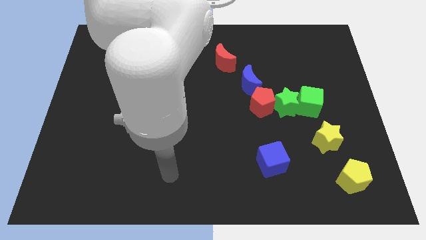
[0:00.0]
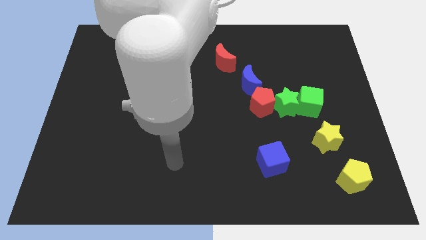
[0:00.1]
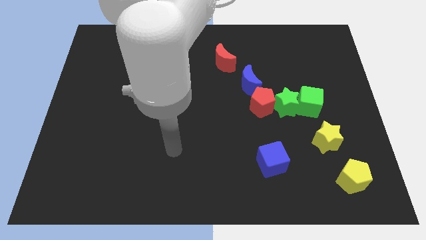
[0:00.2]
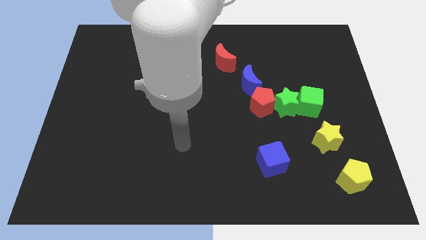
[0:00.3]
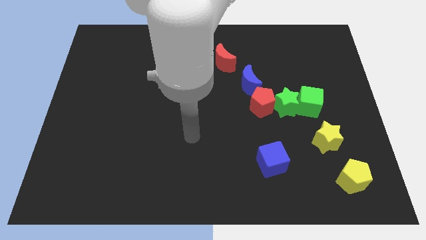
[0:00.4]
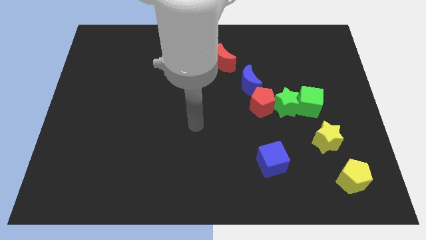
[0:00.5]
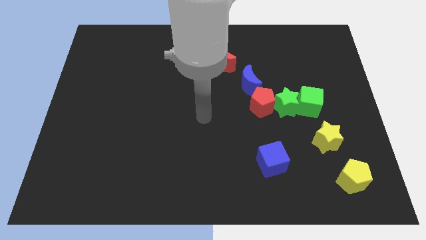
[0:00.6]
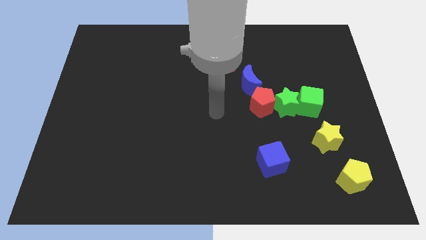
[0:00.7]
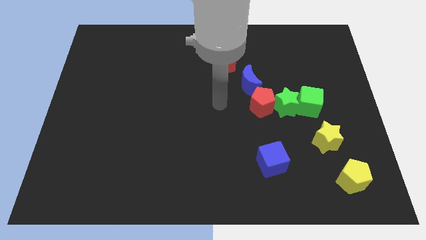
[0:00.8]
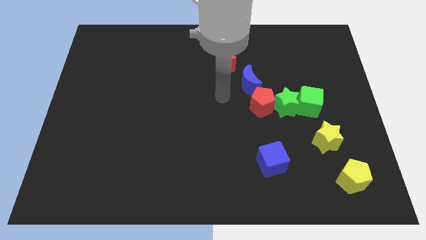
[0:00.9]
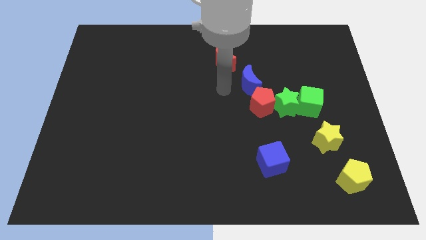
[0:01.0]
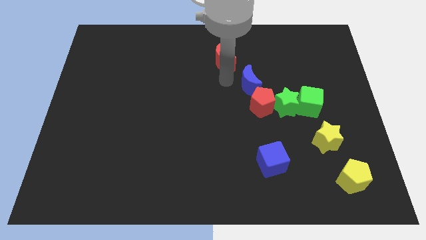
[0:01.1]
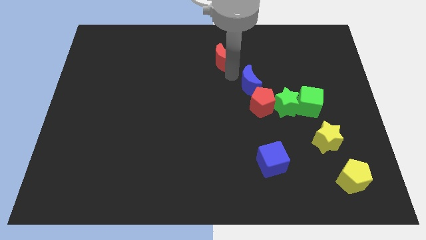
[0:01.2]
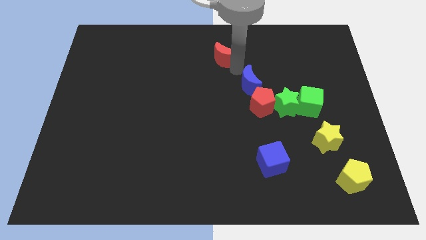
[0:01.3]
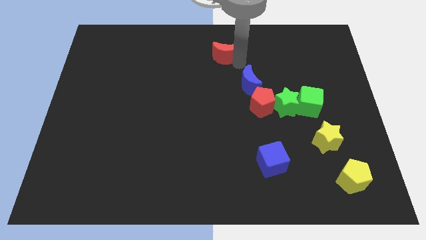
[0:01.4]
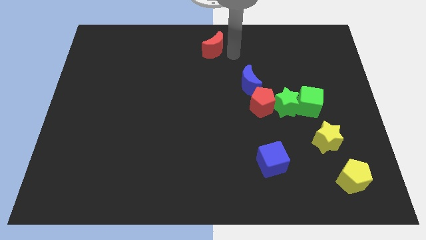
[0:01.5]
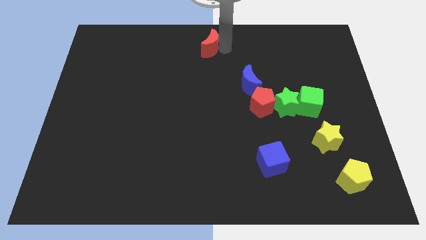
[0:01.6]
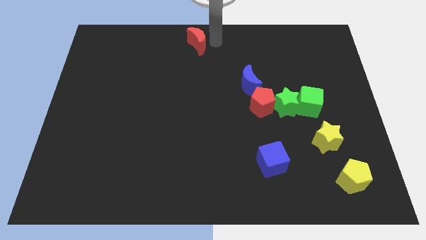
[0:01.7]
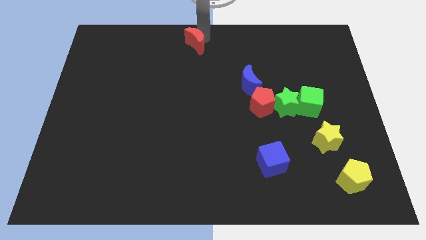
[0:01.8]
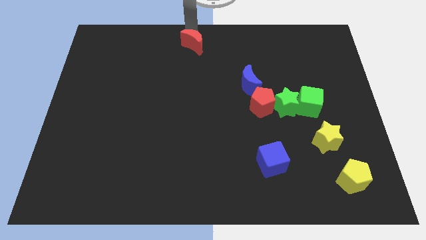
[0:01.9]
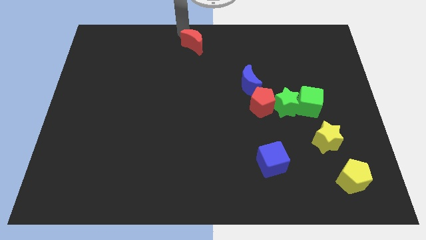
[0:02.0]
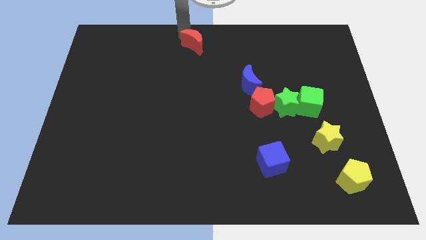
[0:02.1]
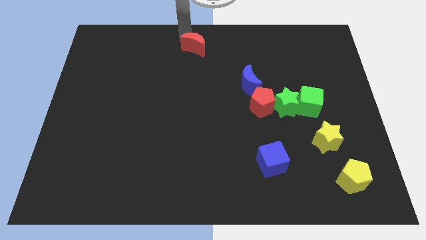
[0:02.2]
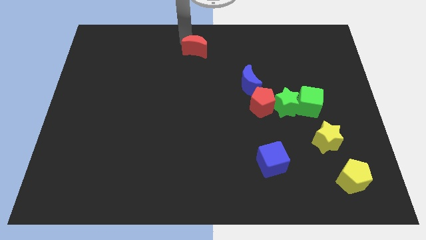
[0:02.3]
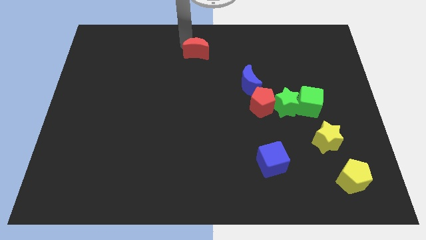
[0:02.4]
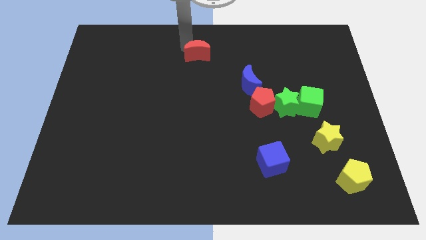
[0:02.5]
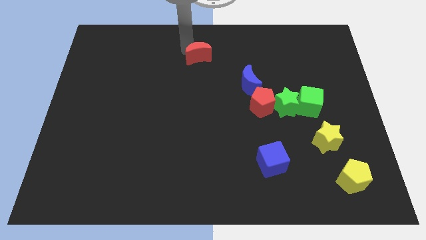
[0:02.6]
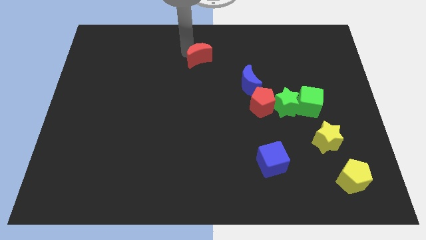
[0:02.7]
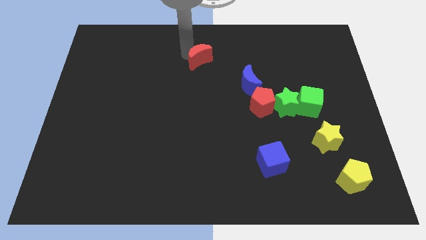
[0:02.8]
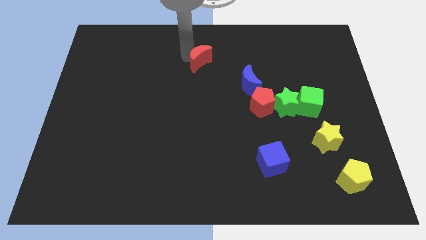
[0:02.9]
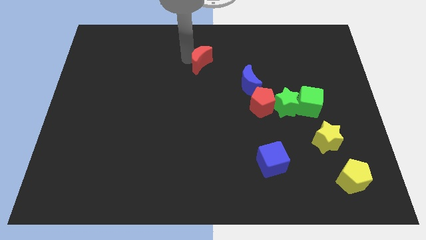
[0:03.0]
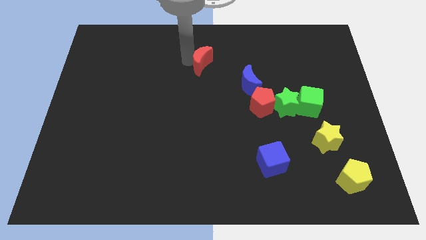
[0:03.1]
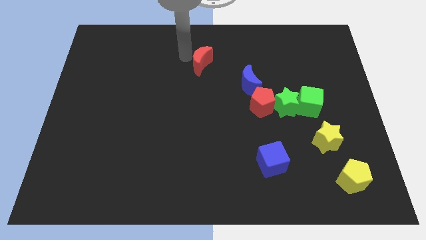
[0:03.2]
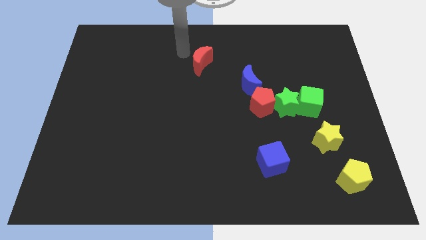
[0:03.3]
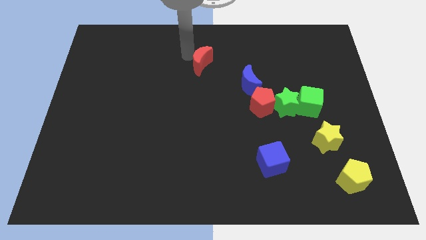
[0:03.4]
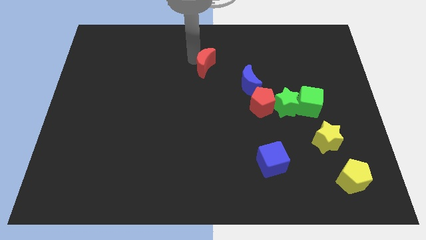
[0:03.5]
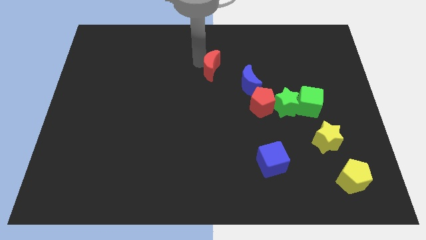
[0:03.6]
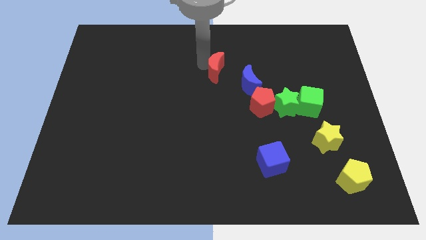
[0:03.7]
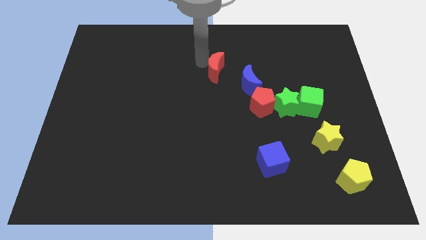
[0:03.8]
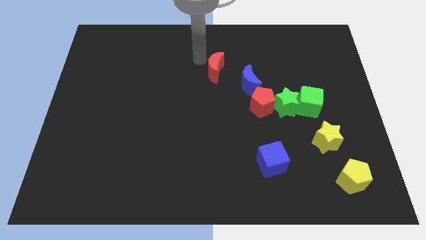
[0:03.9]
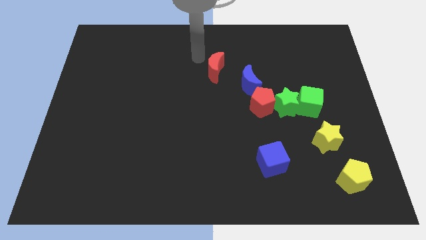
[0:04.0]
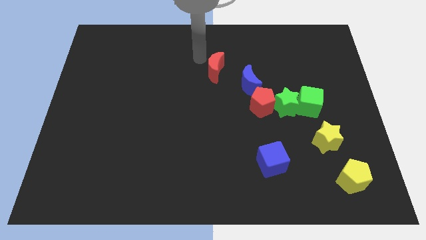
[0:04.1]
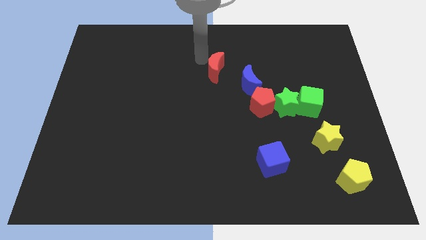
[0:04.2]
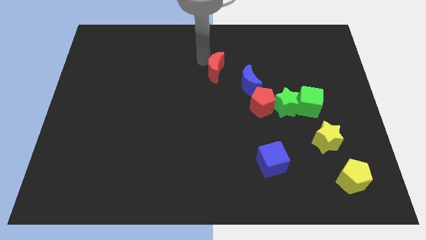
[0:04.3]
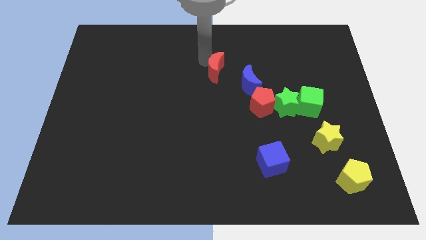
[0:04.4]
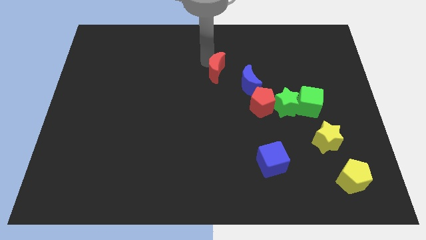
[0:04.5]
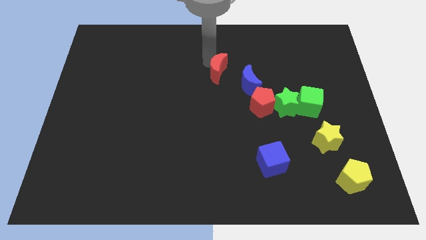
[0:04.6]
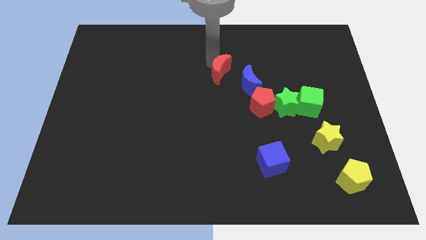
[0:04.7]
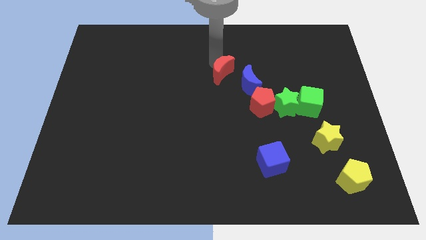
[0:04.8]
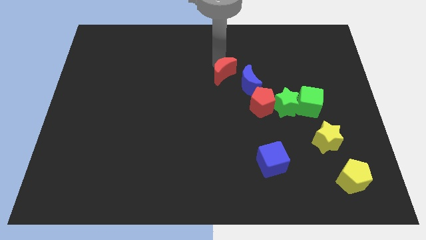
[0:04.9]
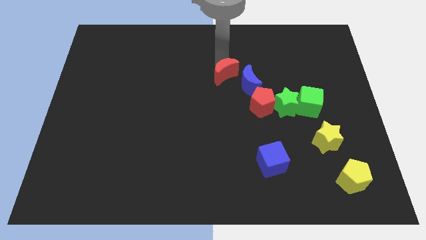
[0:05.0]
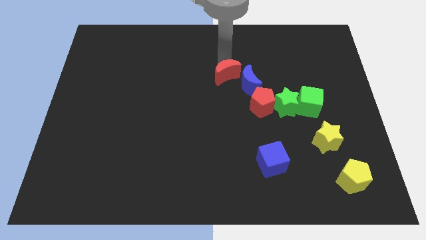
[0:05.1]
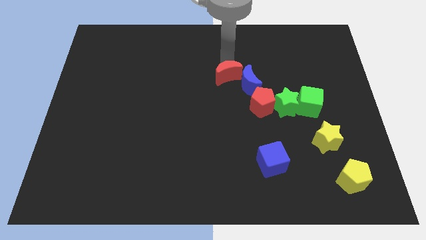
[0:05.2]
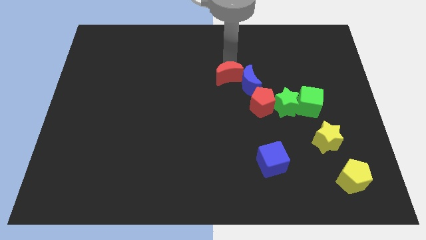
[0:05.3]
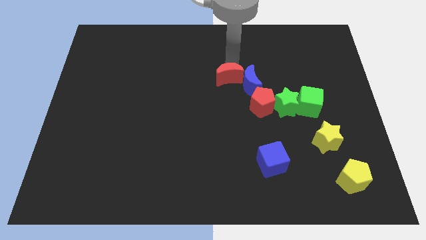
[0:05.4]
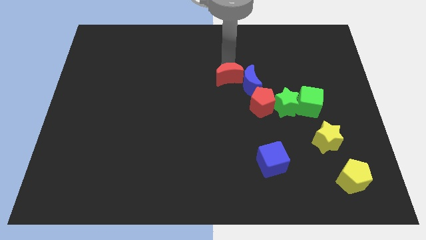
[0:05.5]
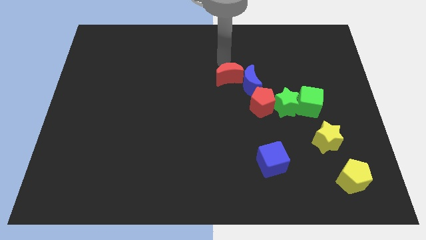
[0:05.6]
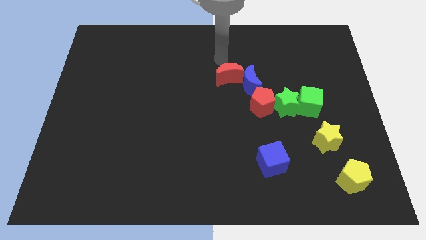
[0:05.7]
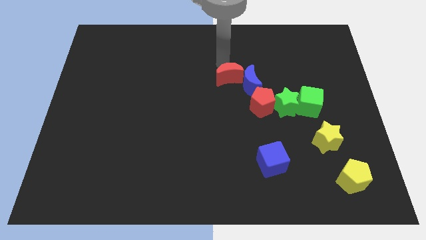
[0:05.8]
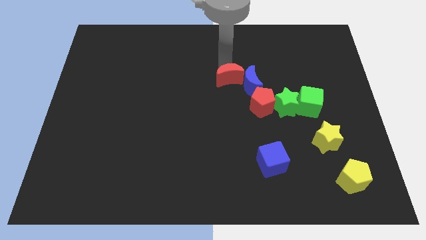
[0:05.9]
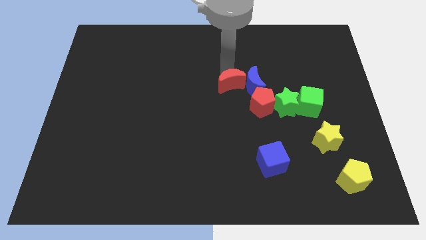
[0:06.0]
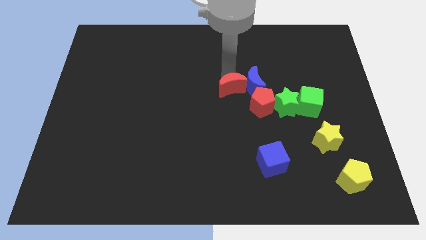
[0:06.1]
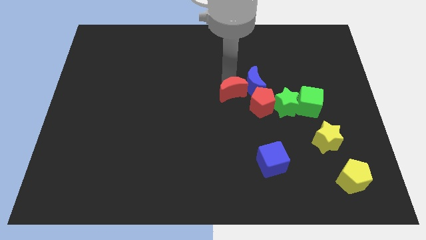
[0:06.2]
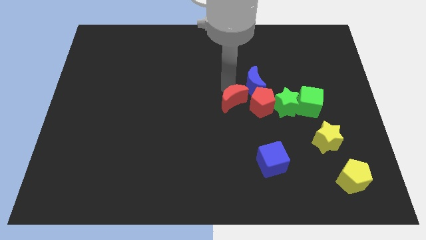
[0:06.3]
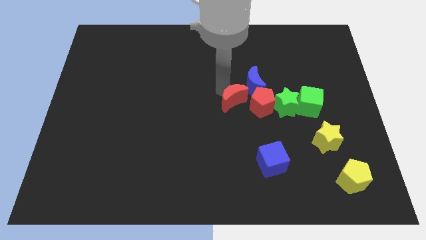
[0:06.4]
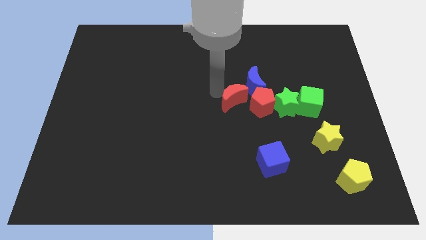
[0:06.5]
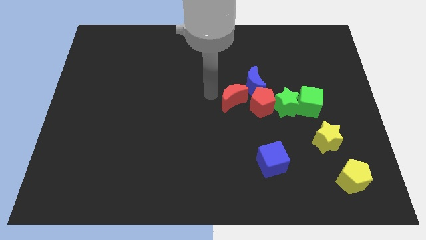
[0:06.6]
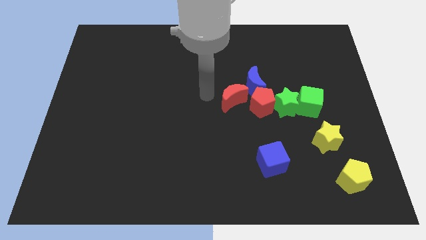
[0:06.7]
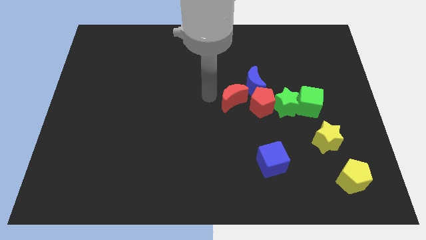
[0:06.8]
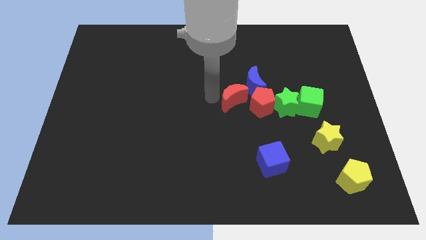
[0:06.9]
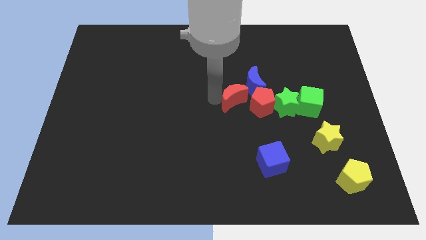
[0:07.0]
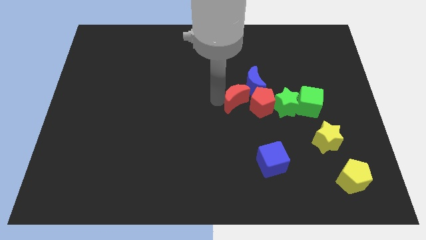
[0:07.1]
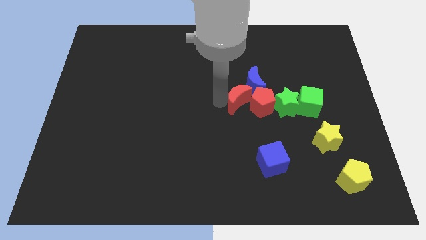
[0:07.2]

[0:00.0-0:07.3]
put the red moon towards the red pentagon

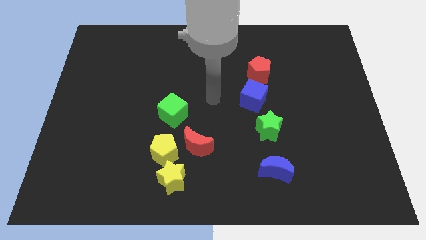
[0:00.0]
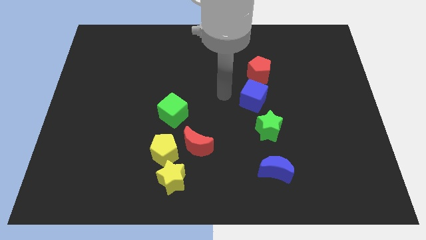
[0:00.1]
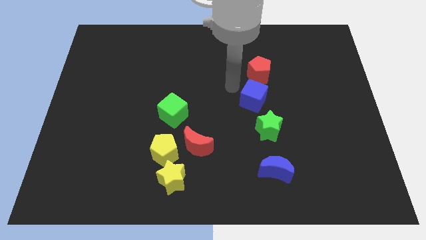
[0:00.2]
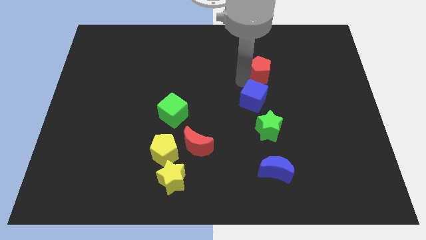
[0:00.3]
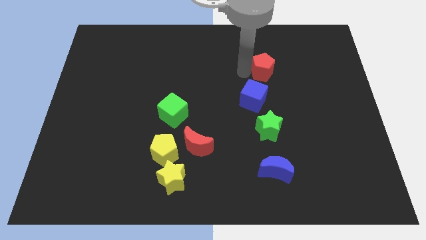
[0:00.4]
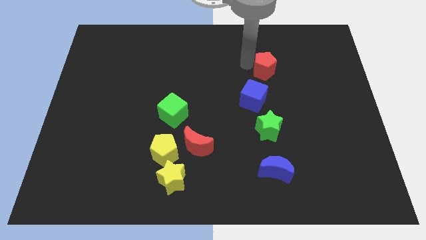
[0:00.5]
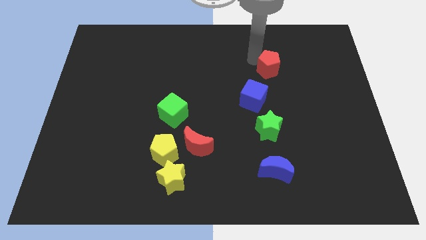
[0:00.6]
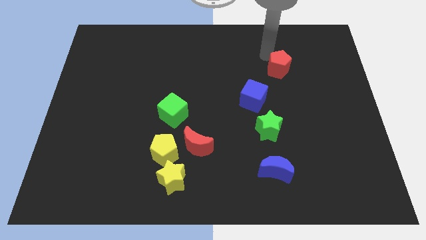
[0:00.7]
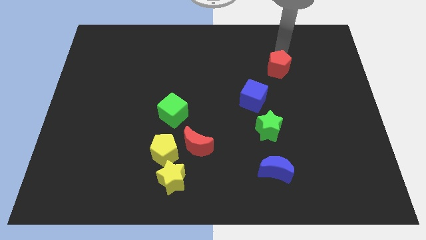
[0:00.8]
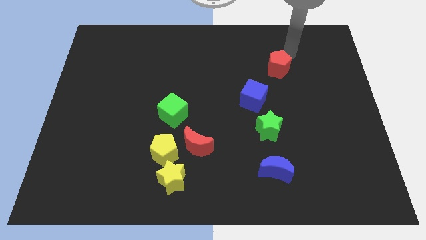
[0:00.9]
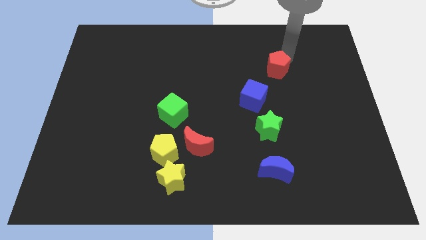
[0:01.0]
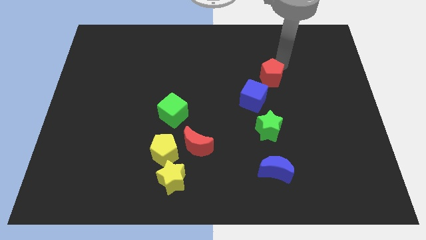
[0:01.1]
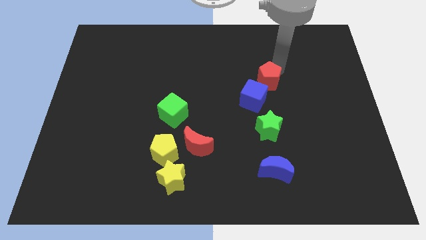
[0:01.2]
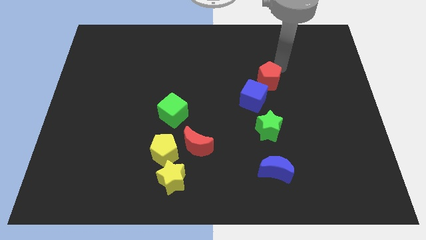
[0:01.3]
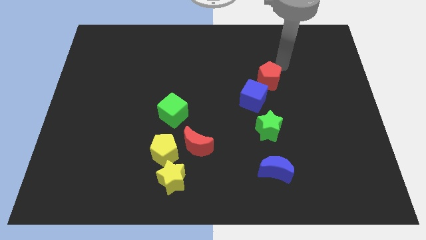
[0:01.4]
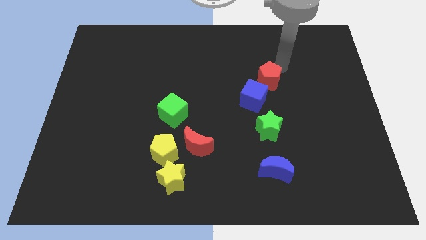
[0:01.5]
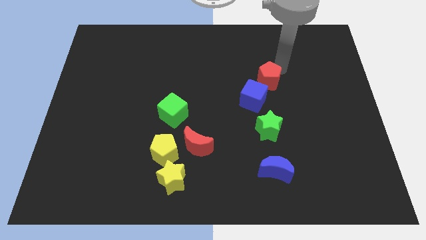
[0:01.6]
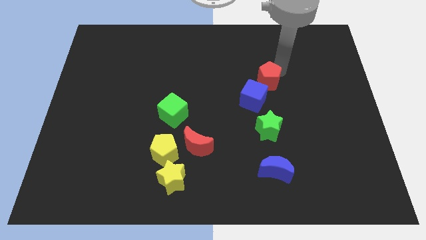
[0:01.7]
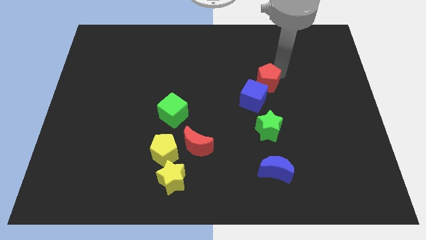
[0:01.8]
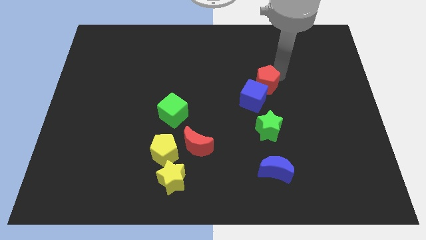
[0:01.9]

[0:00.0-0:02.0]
move the red pentagon close to the blue cube
